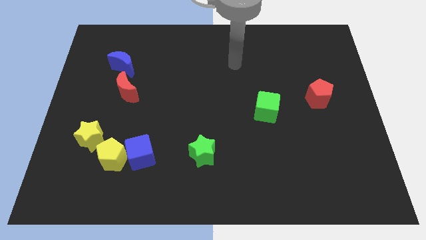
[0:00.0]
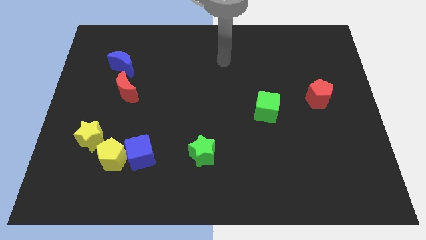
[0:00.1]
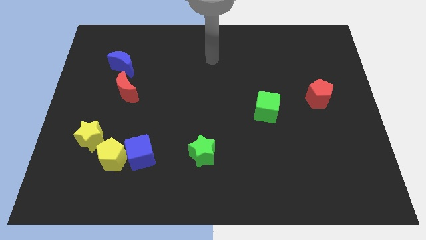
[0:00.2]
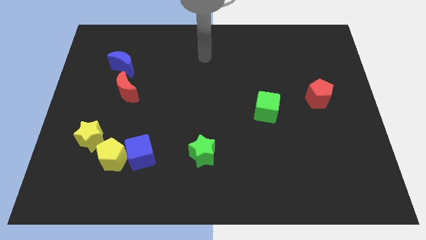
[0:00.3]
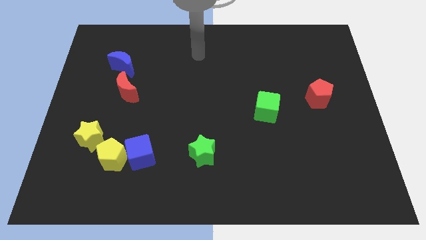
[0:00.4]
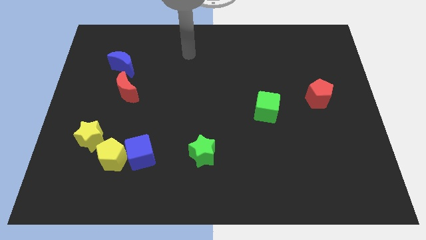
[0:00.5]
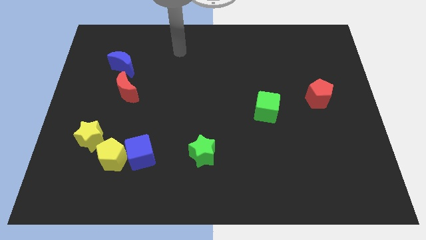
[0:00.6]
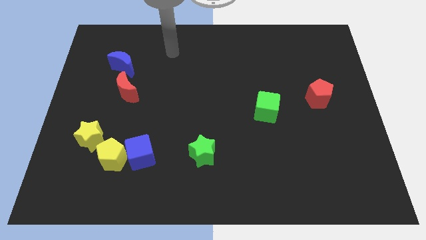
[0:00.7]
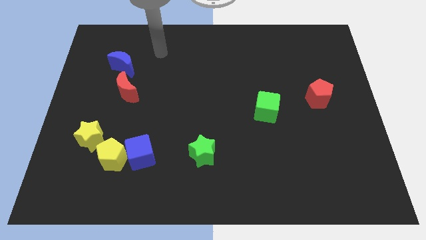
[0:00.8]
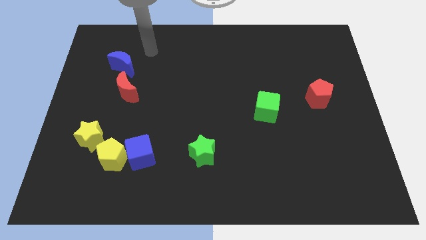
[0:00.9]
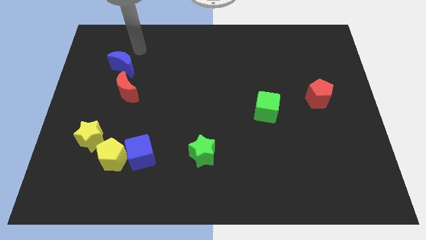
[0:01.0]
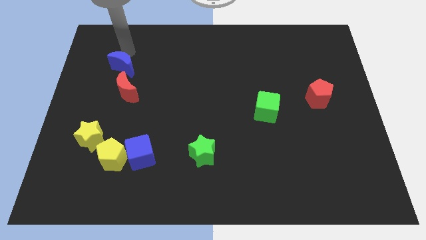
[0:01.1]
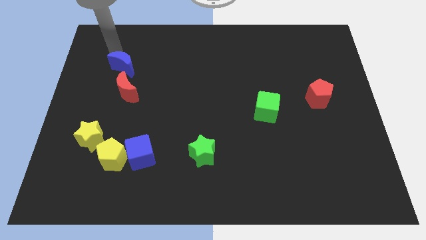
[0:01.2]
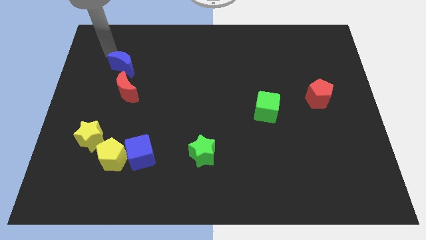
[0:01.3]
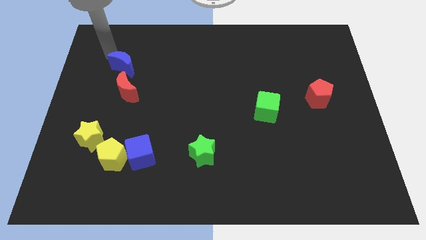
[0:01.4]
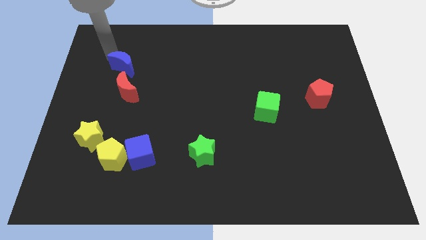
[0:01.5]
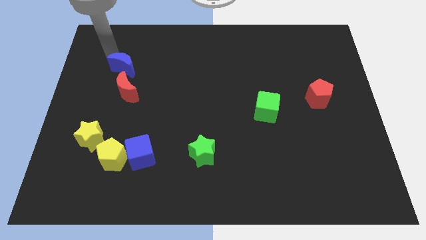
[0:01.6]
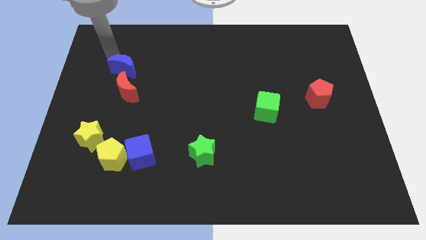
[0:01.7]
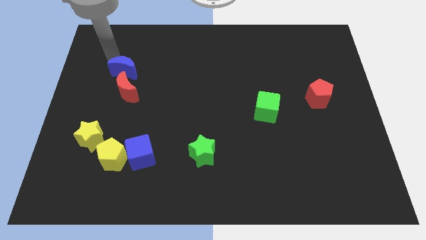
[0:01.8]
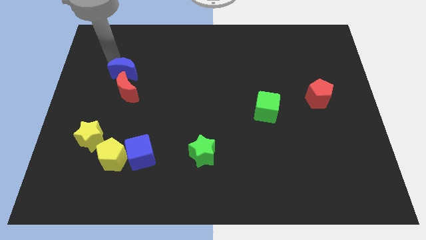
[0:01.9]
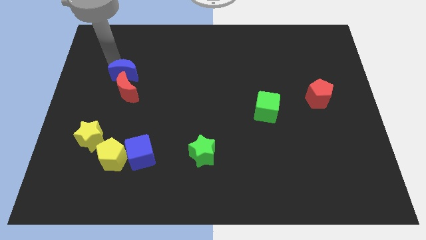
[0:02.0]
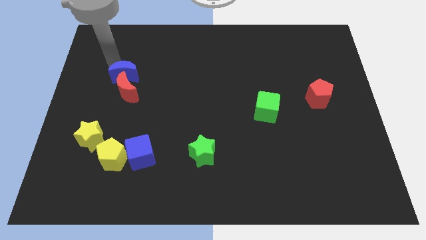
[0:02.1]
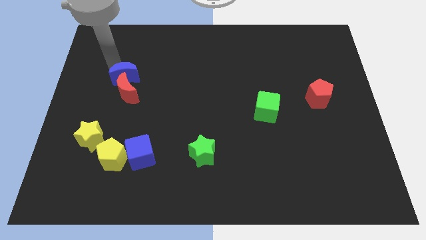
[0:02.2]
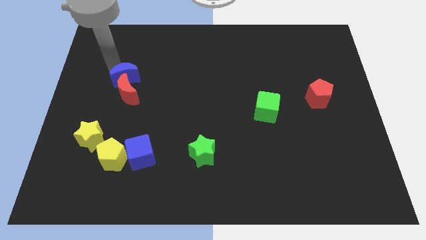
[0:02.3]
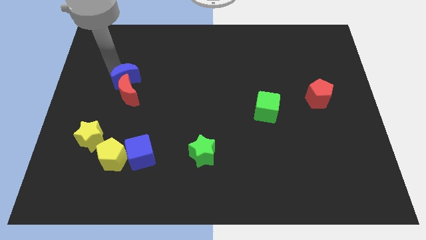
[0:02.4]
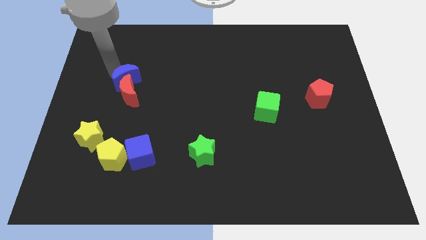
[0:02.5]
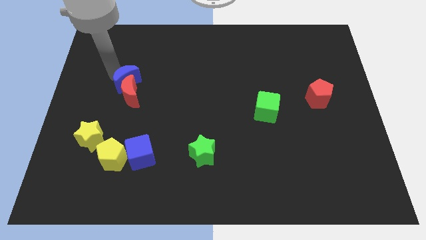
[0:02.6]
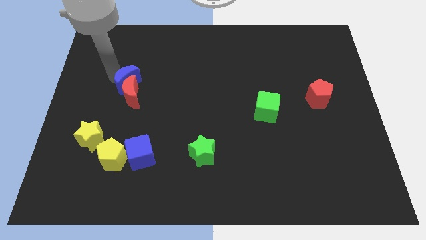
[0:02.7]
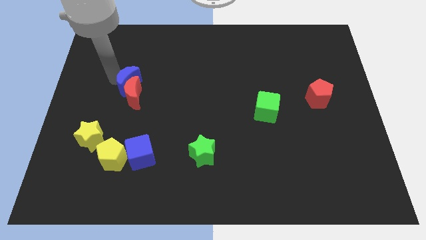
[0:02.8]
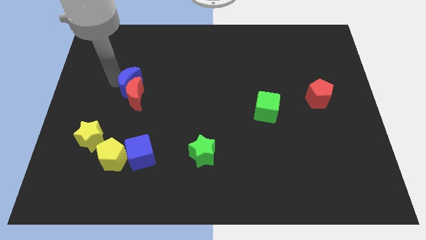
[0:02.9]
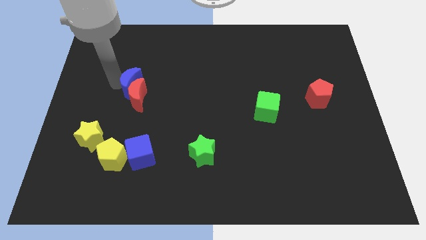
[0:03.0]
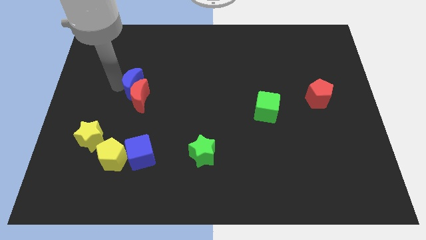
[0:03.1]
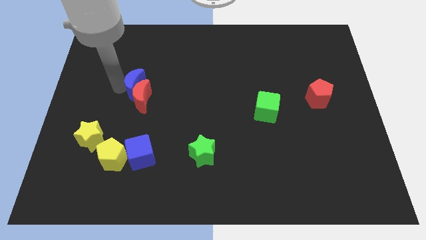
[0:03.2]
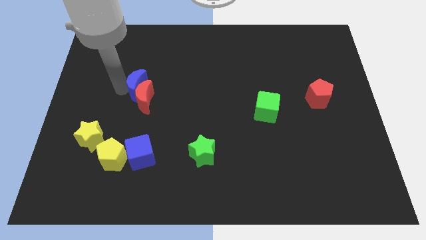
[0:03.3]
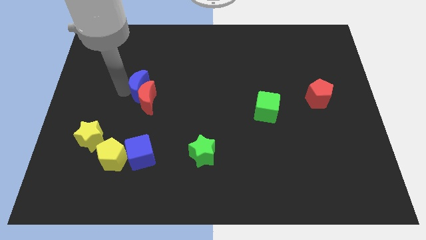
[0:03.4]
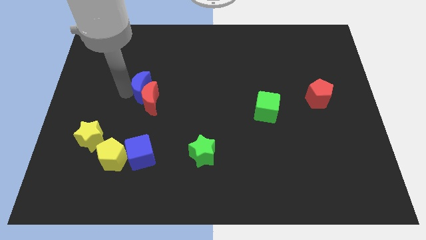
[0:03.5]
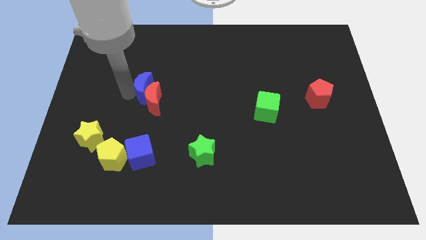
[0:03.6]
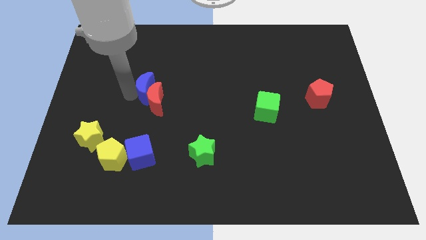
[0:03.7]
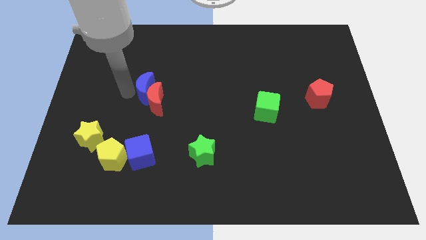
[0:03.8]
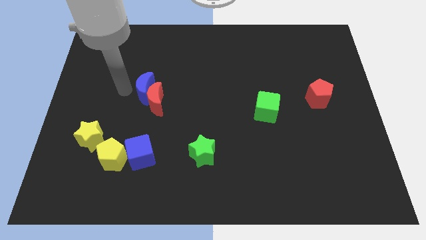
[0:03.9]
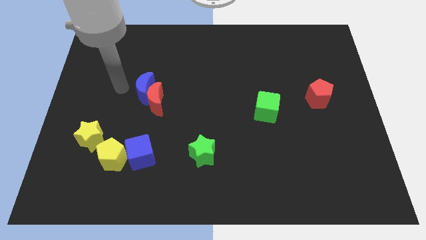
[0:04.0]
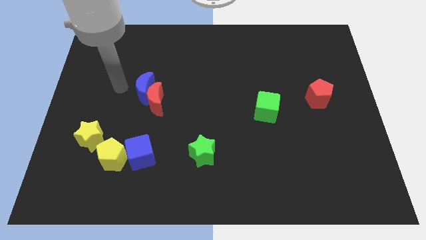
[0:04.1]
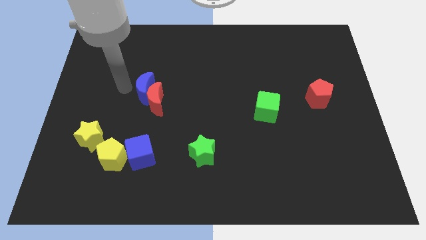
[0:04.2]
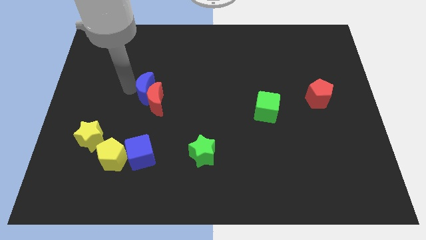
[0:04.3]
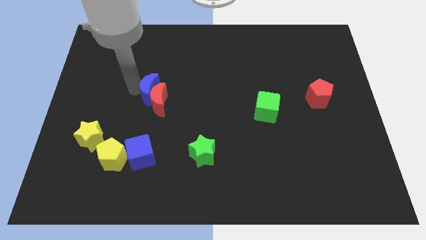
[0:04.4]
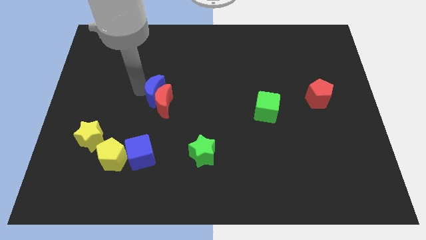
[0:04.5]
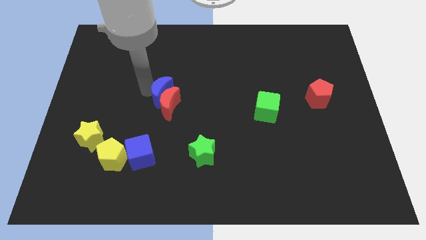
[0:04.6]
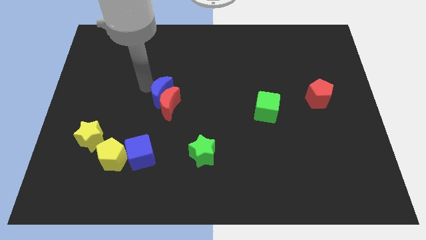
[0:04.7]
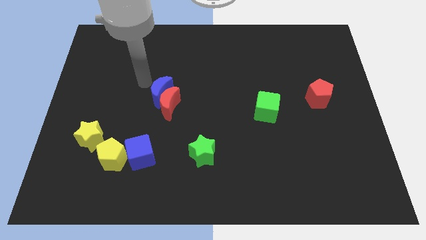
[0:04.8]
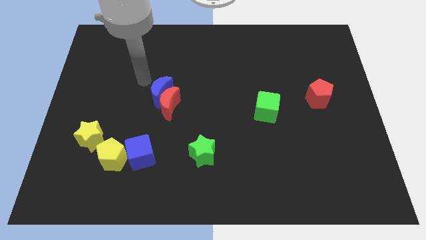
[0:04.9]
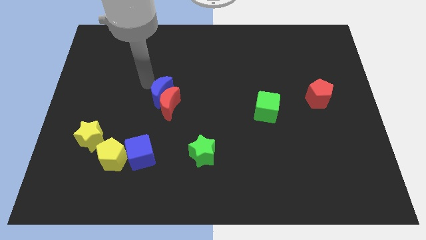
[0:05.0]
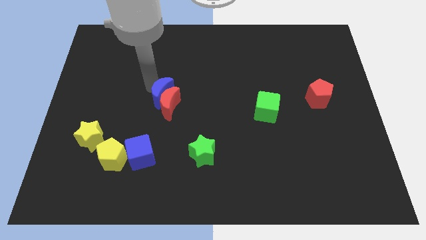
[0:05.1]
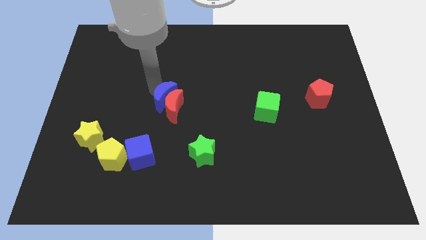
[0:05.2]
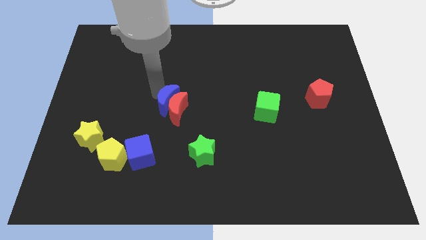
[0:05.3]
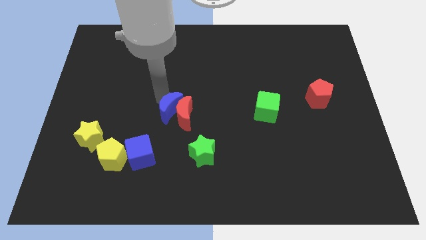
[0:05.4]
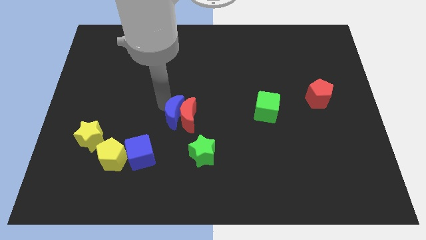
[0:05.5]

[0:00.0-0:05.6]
push the blue moon down and to the right

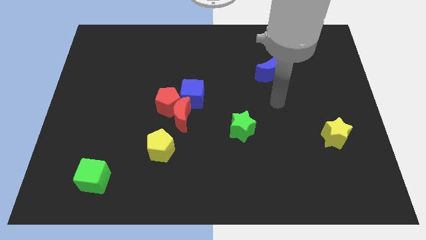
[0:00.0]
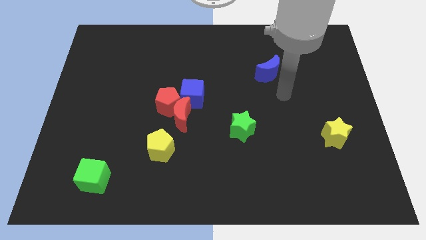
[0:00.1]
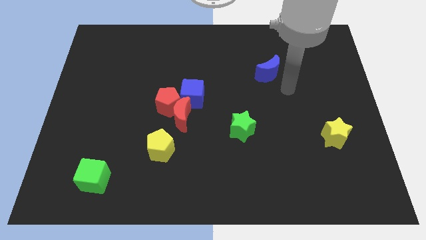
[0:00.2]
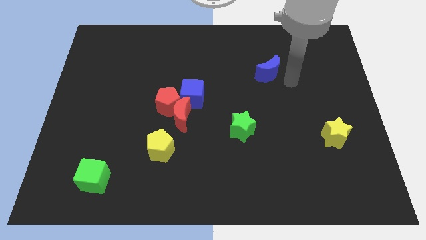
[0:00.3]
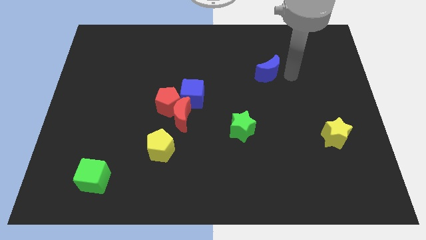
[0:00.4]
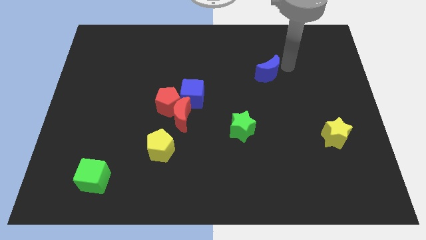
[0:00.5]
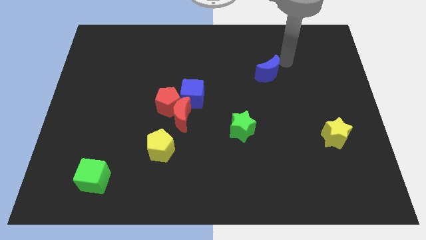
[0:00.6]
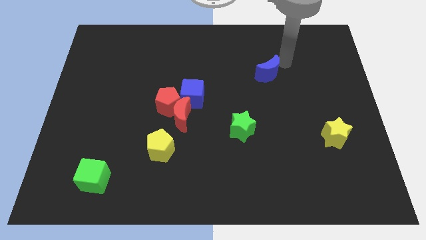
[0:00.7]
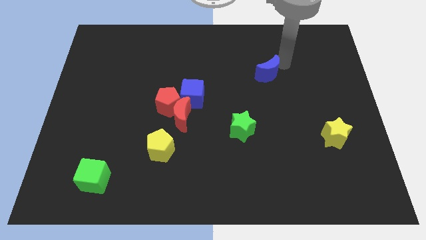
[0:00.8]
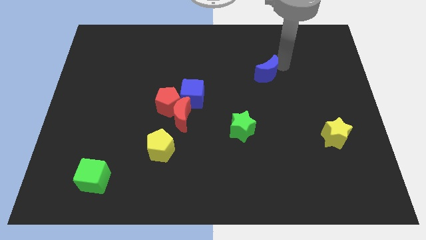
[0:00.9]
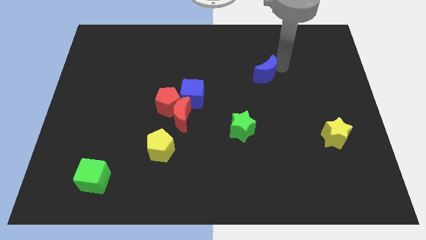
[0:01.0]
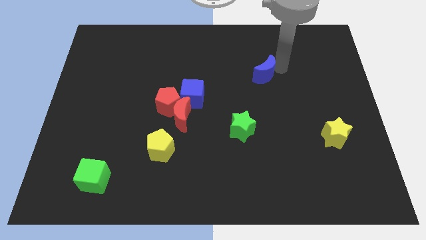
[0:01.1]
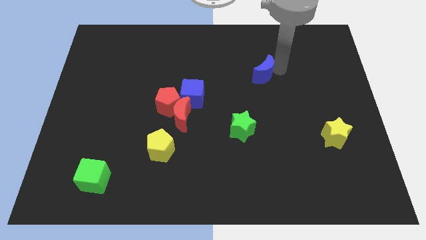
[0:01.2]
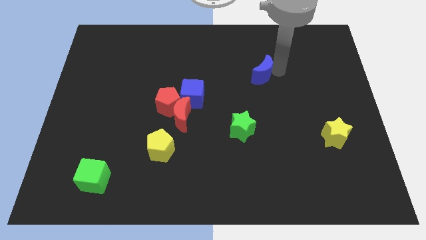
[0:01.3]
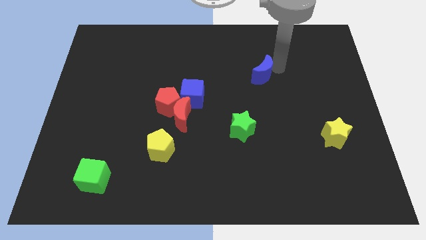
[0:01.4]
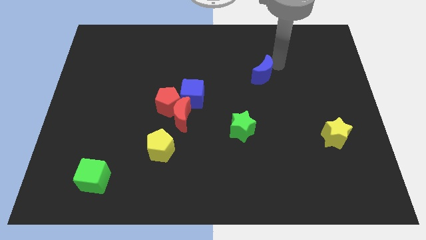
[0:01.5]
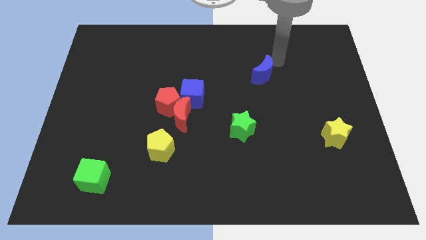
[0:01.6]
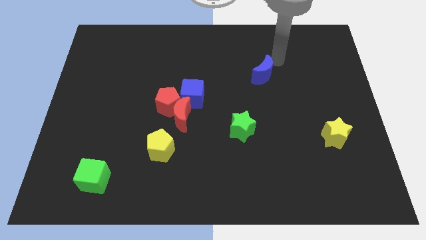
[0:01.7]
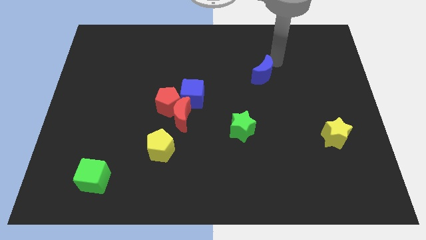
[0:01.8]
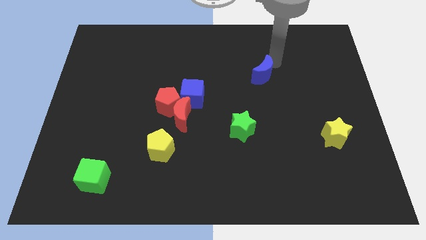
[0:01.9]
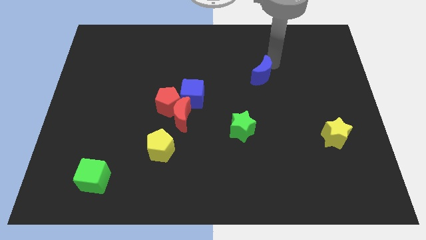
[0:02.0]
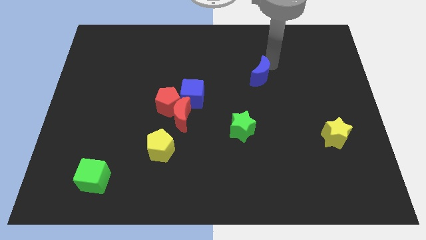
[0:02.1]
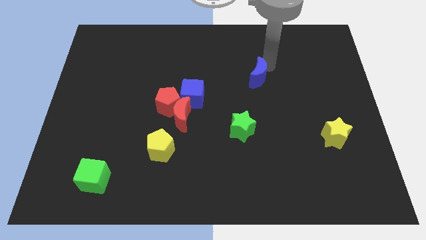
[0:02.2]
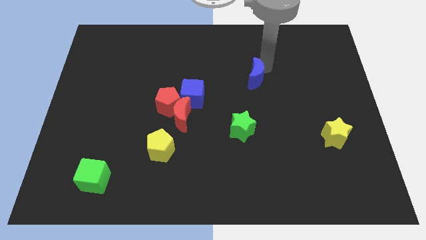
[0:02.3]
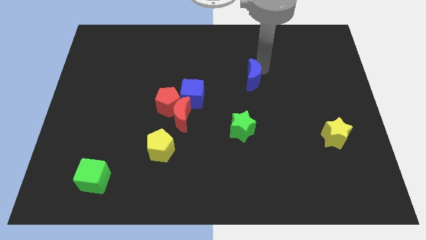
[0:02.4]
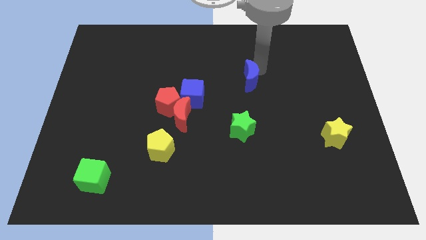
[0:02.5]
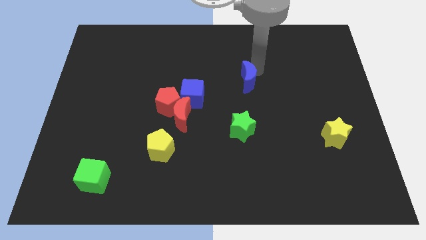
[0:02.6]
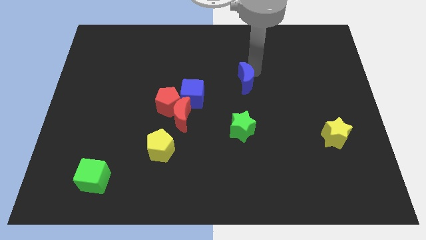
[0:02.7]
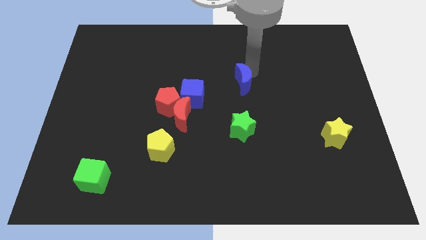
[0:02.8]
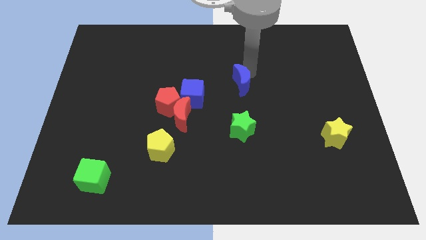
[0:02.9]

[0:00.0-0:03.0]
push the blue moon slightly down and left
